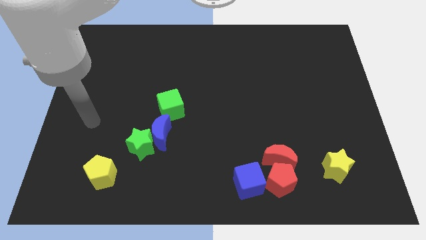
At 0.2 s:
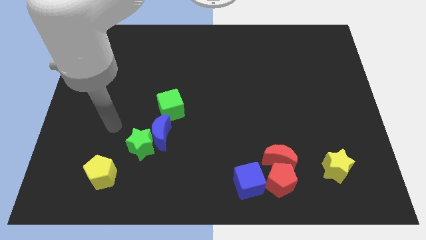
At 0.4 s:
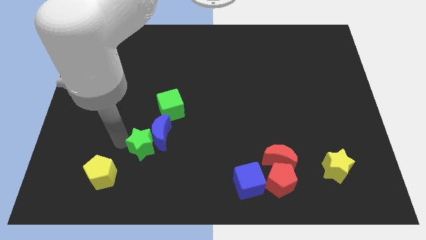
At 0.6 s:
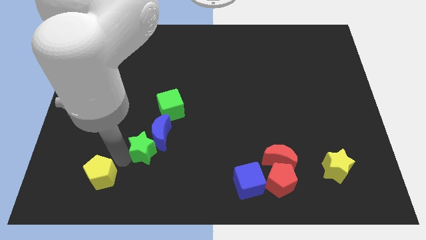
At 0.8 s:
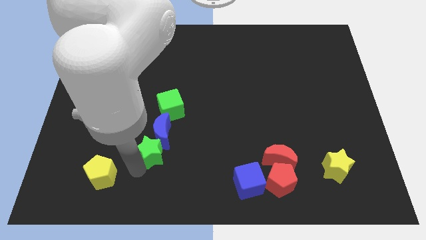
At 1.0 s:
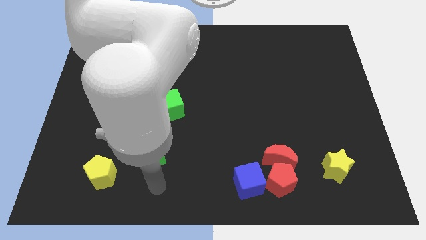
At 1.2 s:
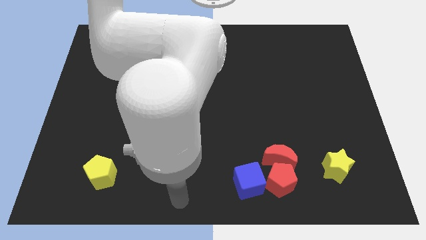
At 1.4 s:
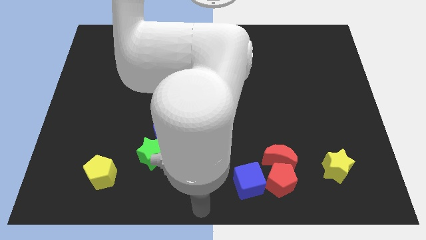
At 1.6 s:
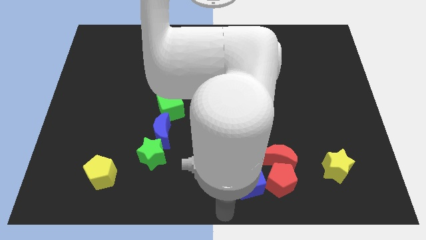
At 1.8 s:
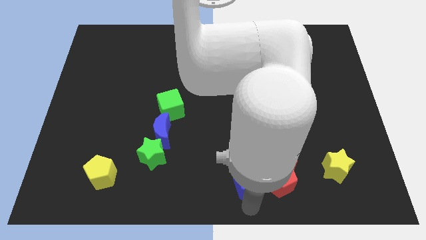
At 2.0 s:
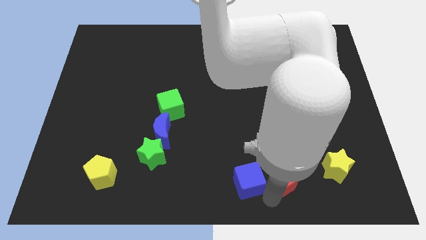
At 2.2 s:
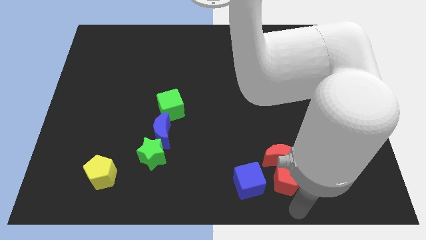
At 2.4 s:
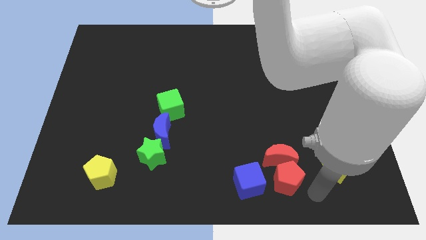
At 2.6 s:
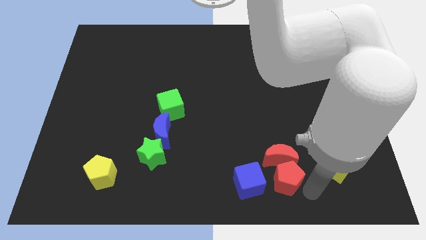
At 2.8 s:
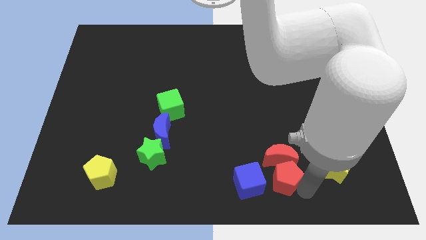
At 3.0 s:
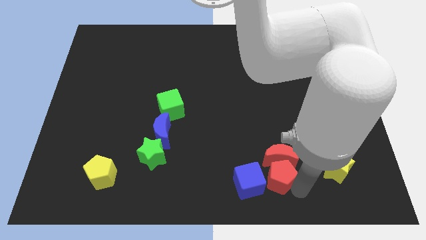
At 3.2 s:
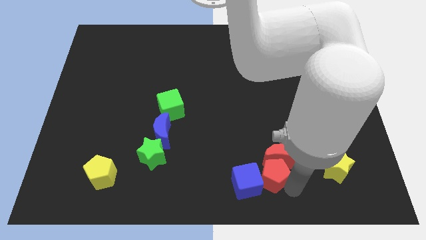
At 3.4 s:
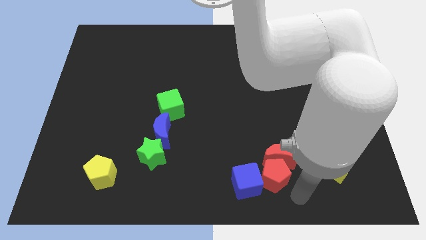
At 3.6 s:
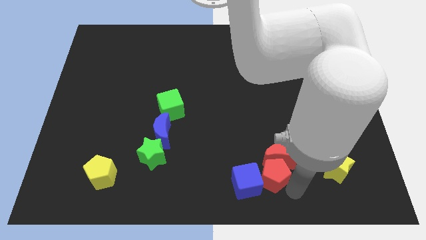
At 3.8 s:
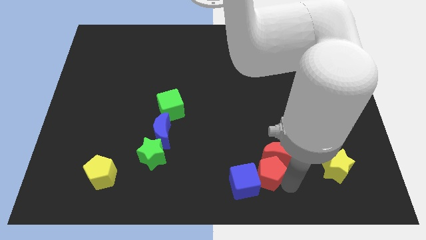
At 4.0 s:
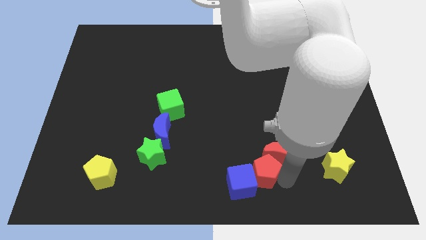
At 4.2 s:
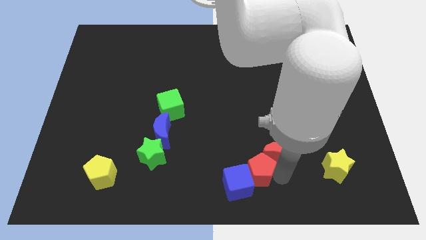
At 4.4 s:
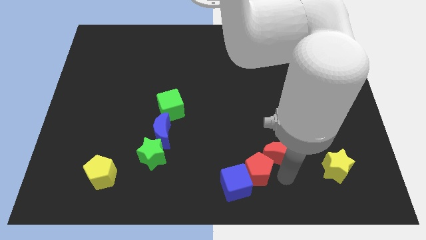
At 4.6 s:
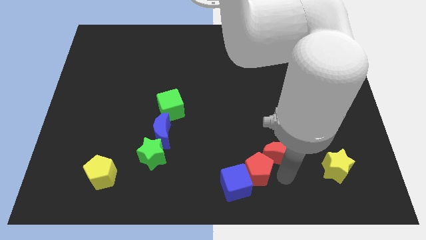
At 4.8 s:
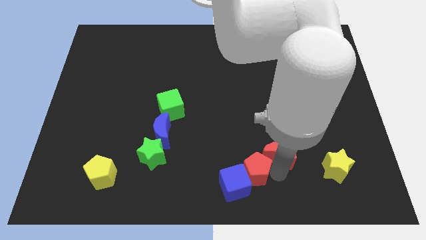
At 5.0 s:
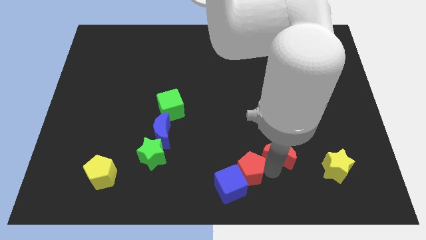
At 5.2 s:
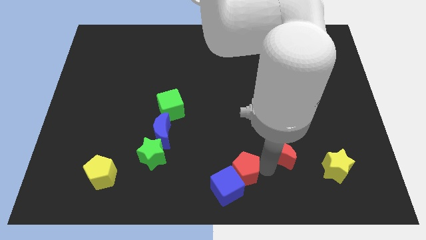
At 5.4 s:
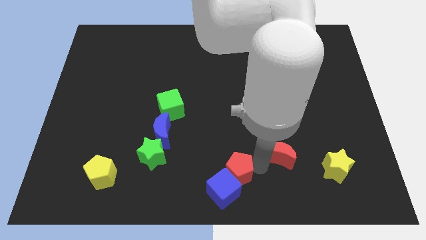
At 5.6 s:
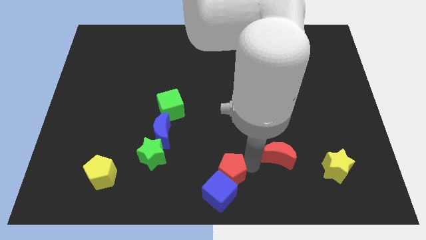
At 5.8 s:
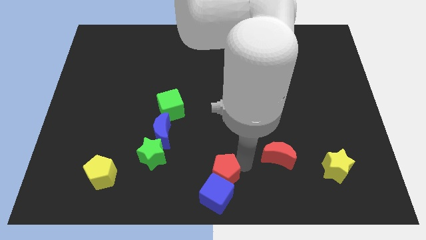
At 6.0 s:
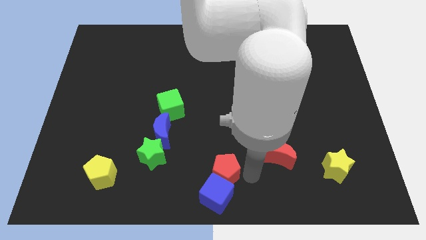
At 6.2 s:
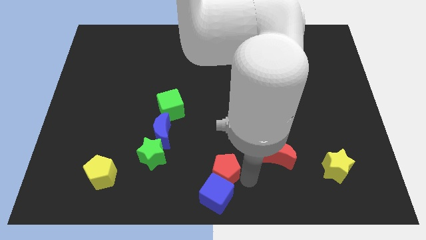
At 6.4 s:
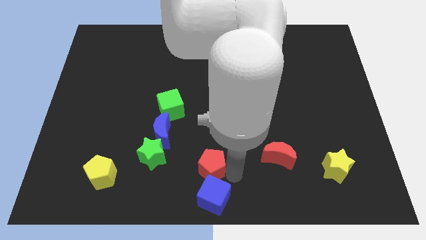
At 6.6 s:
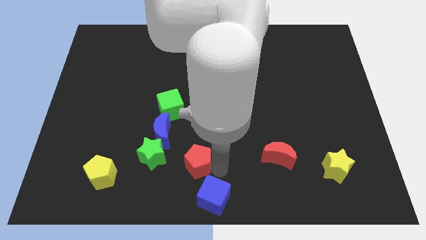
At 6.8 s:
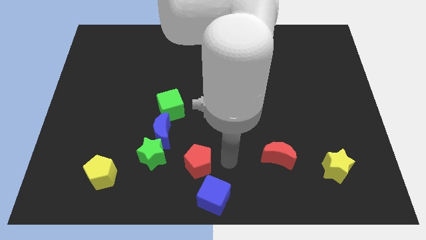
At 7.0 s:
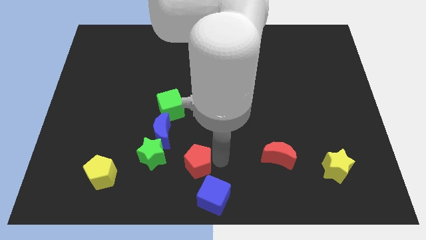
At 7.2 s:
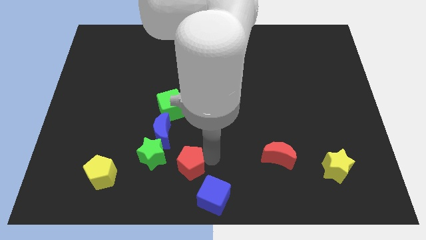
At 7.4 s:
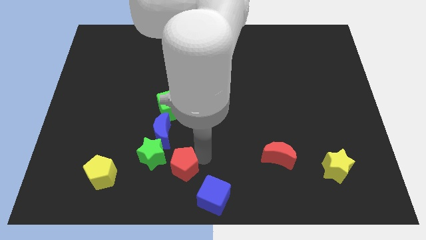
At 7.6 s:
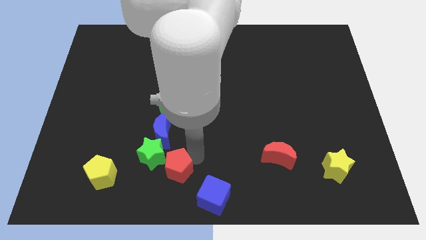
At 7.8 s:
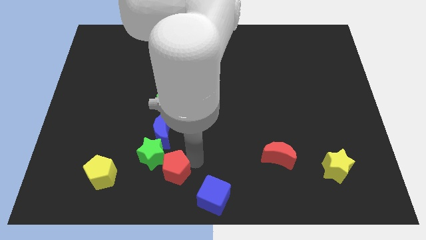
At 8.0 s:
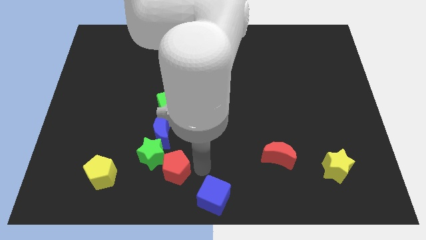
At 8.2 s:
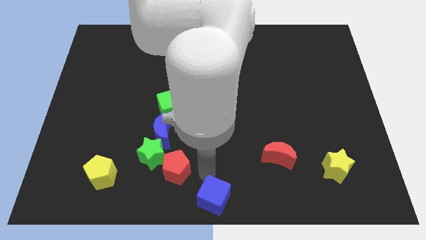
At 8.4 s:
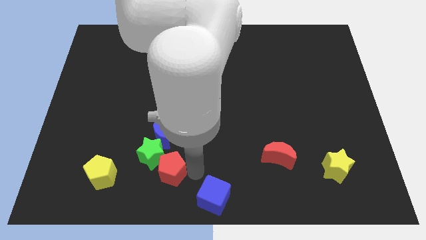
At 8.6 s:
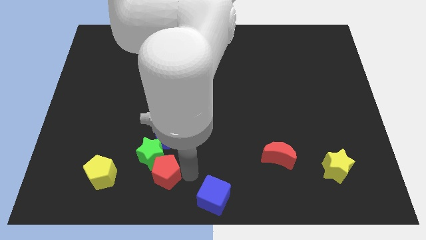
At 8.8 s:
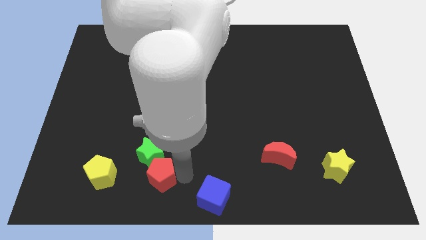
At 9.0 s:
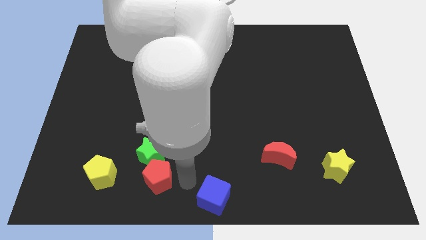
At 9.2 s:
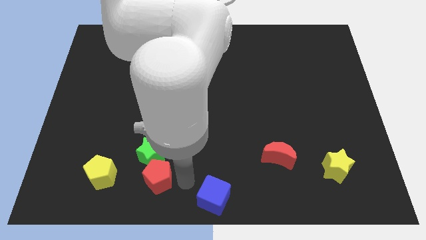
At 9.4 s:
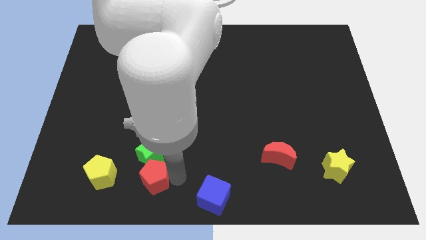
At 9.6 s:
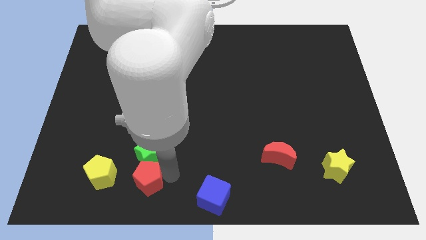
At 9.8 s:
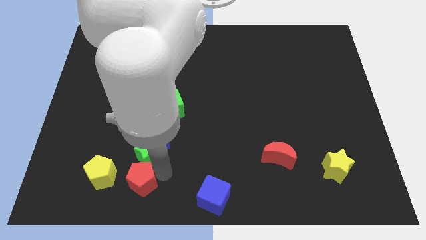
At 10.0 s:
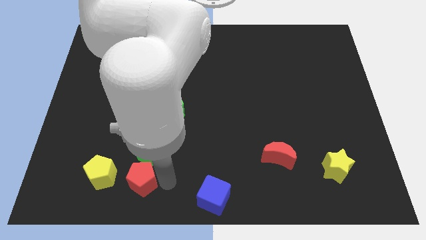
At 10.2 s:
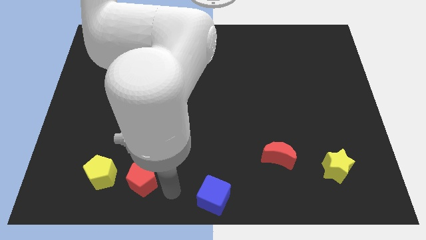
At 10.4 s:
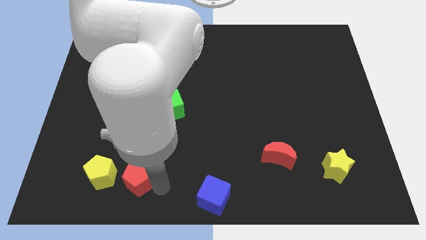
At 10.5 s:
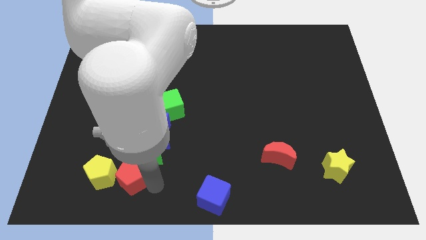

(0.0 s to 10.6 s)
slide the red pentagon to the yellow pentagon

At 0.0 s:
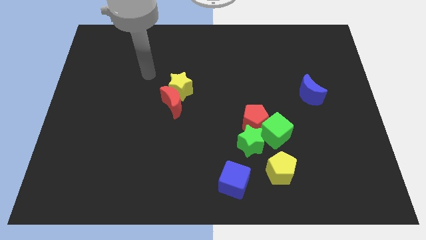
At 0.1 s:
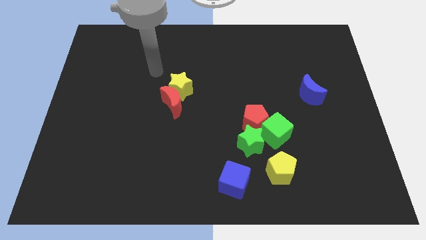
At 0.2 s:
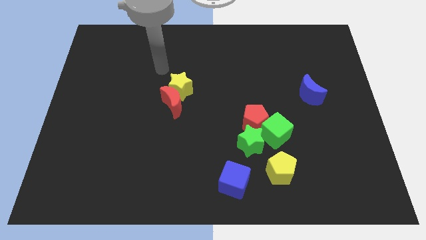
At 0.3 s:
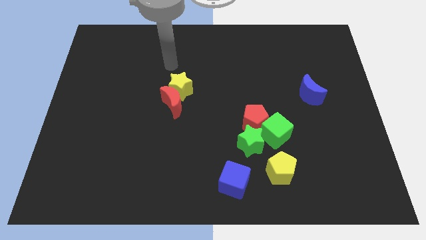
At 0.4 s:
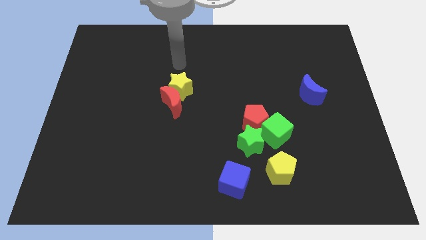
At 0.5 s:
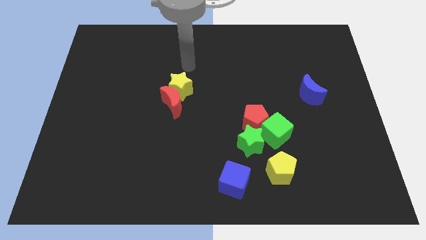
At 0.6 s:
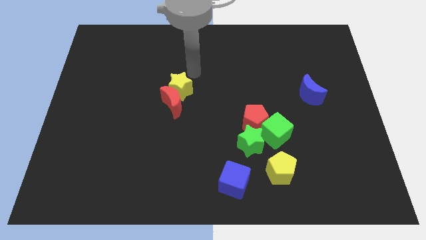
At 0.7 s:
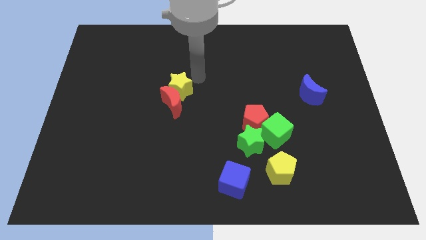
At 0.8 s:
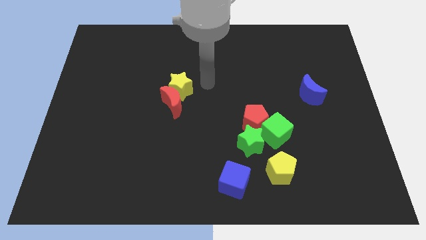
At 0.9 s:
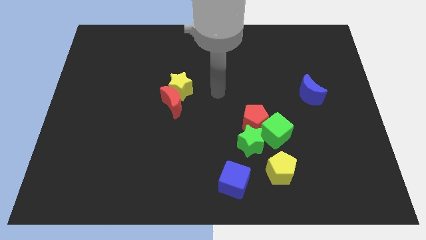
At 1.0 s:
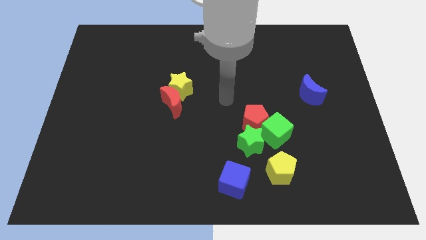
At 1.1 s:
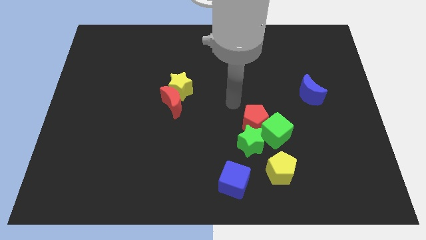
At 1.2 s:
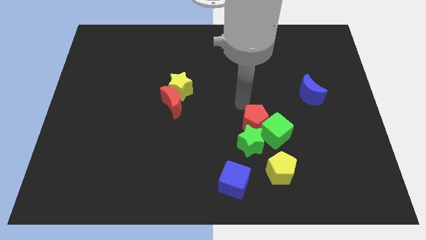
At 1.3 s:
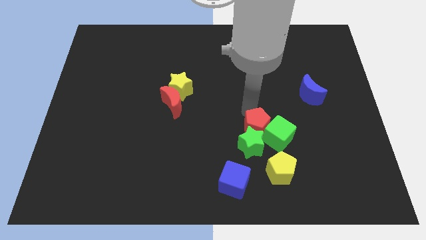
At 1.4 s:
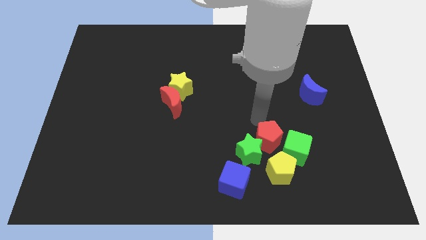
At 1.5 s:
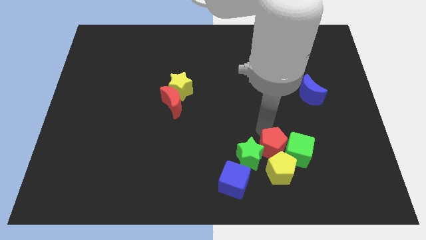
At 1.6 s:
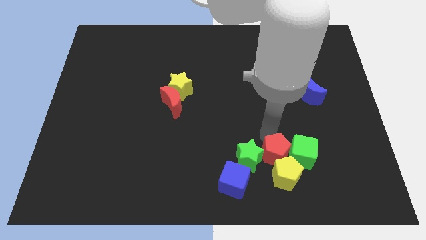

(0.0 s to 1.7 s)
push the green star next to the blue cube
